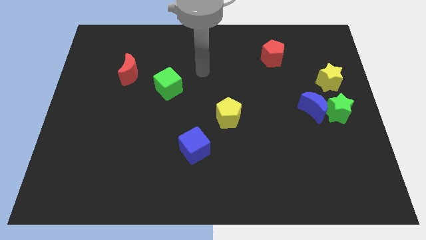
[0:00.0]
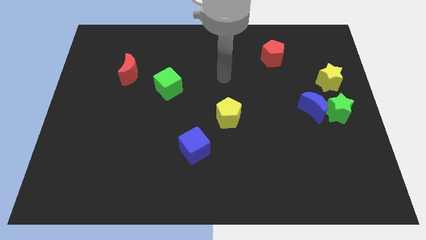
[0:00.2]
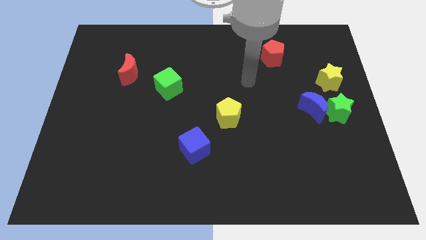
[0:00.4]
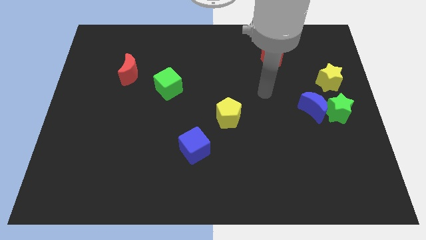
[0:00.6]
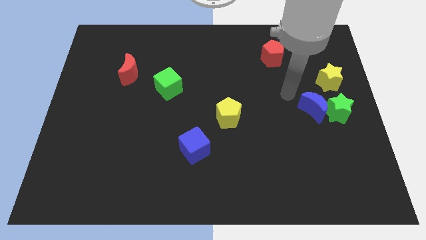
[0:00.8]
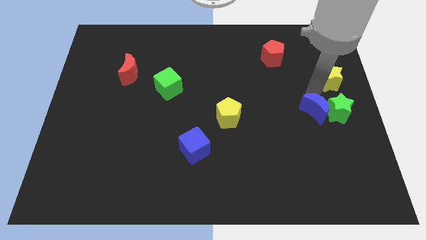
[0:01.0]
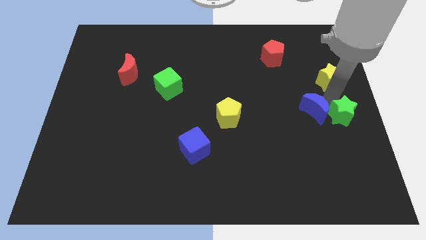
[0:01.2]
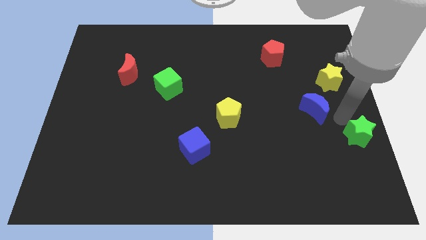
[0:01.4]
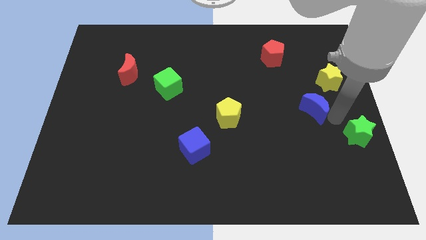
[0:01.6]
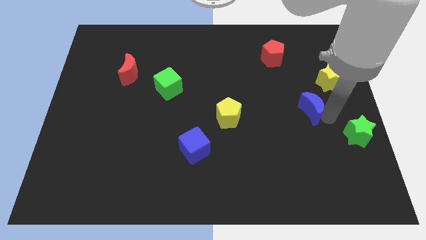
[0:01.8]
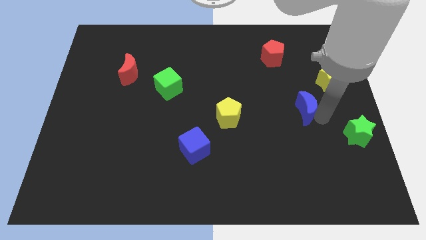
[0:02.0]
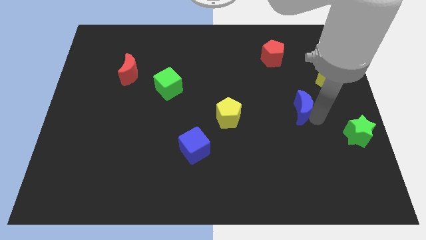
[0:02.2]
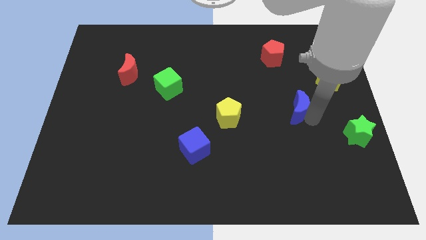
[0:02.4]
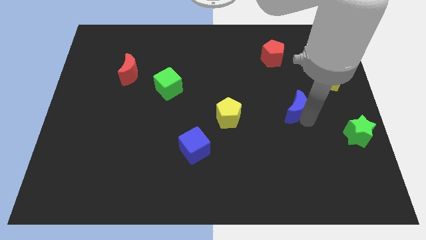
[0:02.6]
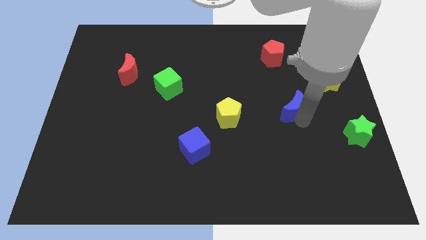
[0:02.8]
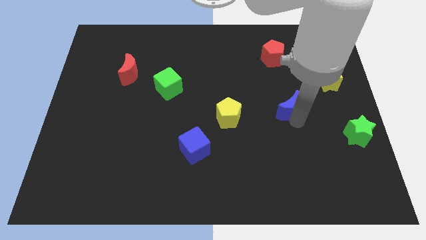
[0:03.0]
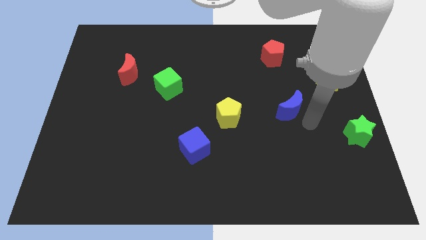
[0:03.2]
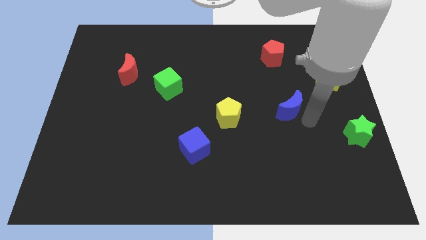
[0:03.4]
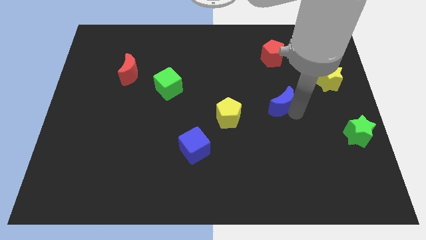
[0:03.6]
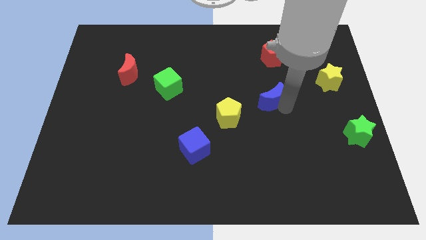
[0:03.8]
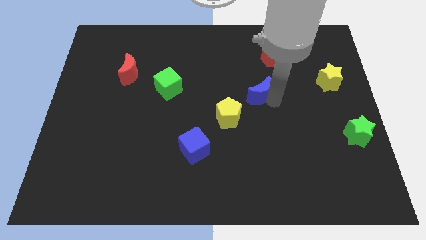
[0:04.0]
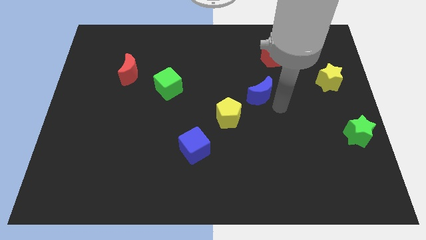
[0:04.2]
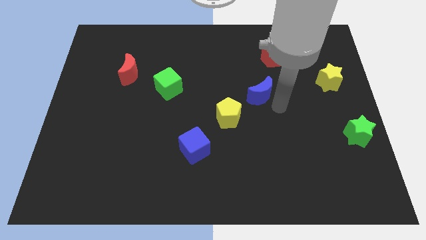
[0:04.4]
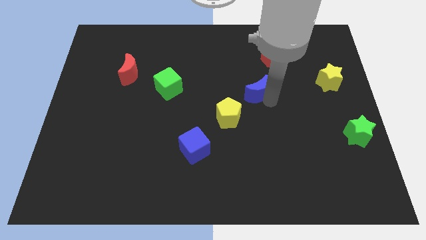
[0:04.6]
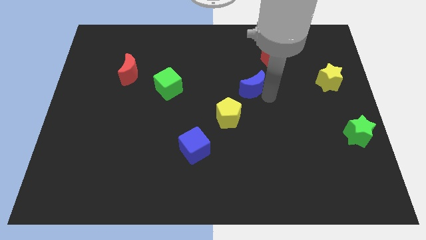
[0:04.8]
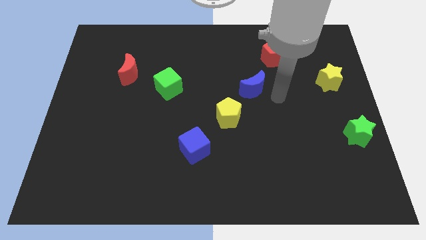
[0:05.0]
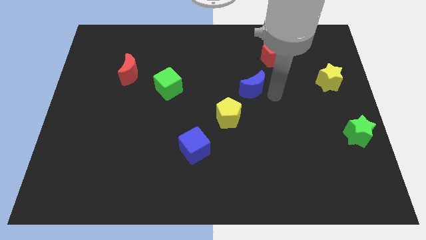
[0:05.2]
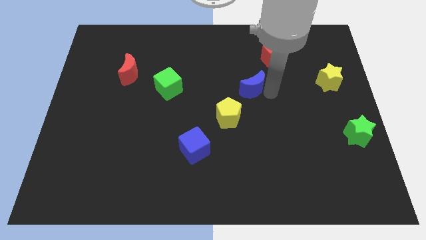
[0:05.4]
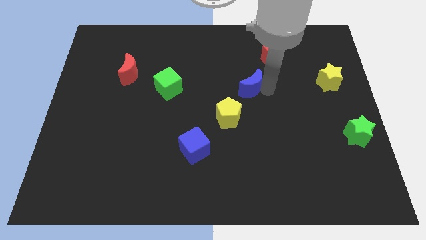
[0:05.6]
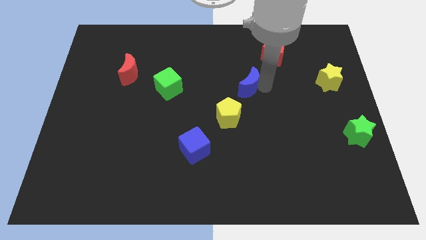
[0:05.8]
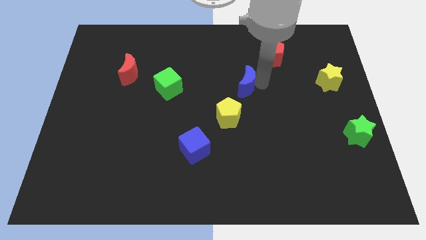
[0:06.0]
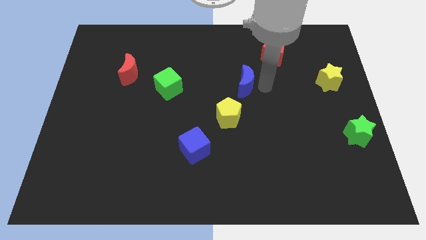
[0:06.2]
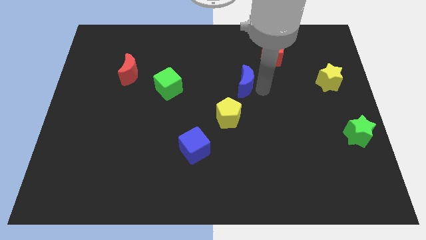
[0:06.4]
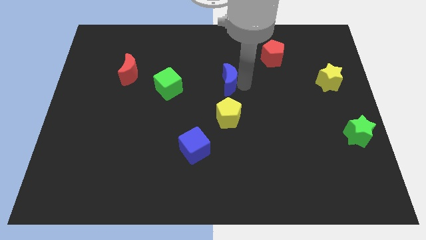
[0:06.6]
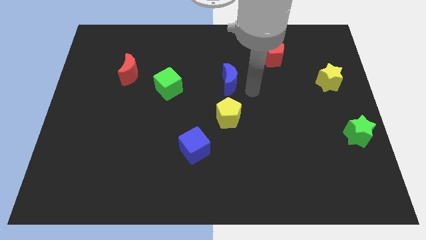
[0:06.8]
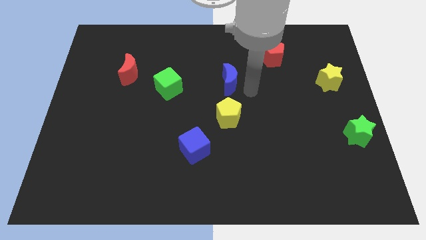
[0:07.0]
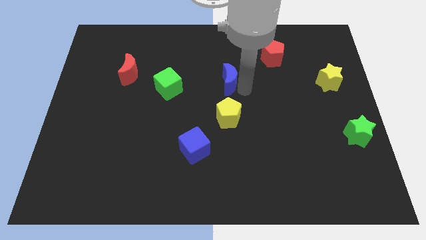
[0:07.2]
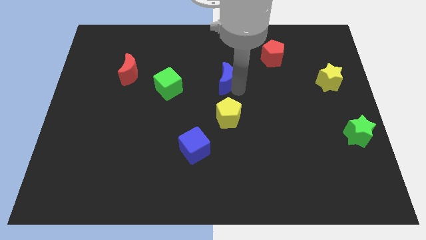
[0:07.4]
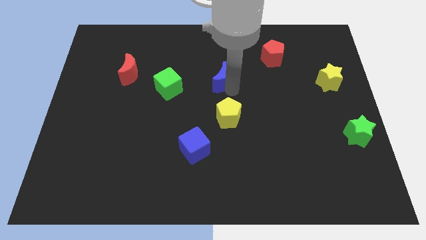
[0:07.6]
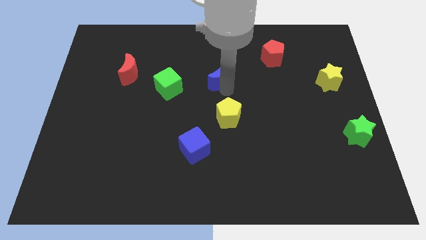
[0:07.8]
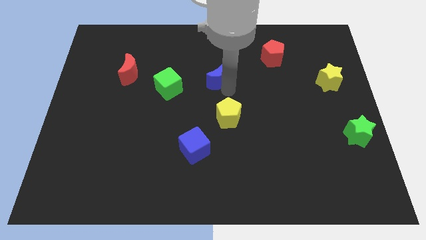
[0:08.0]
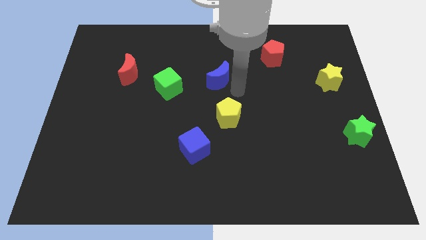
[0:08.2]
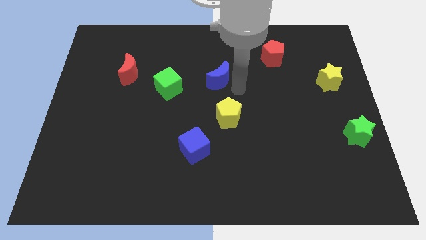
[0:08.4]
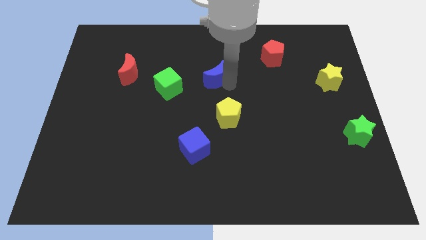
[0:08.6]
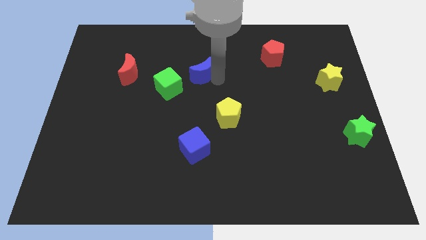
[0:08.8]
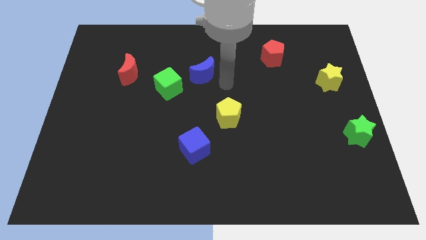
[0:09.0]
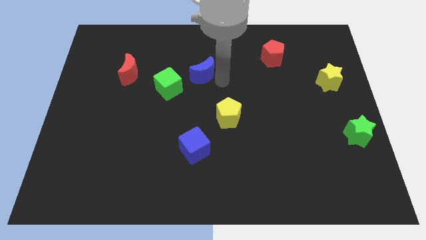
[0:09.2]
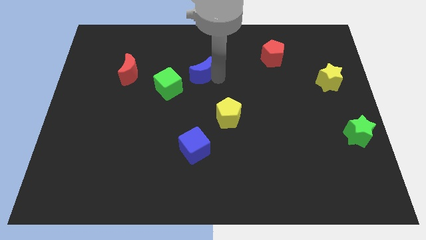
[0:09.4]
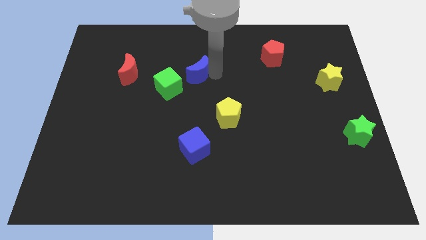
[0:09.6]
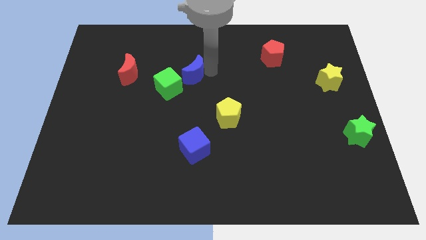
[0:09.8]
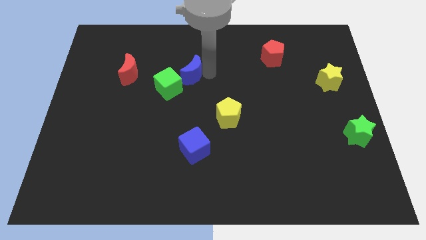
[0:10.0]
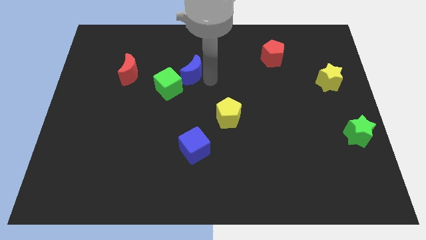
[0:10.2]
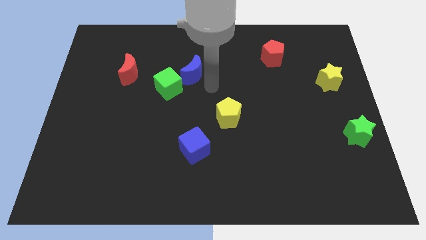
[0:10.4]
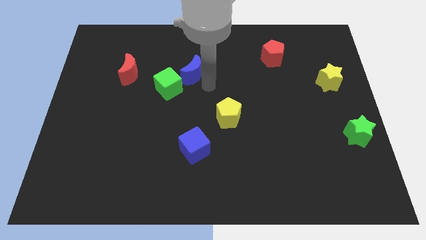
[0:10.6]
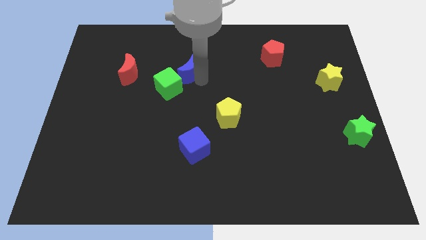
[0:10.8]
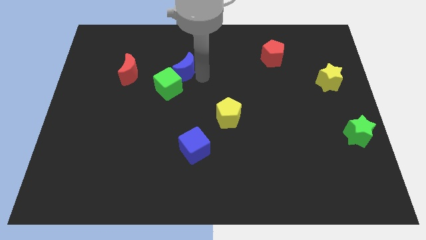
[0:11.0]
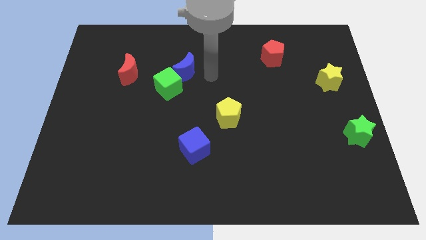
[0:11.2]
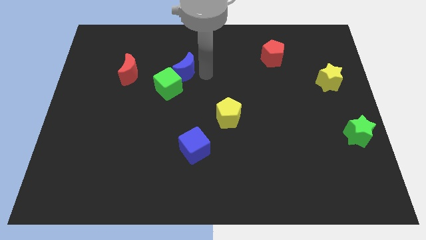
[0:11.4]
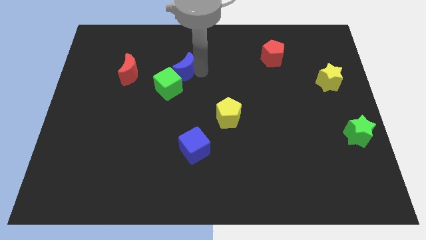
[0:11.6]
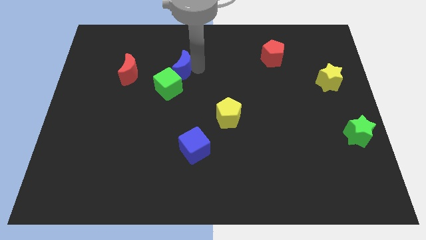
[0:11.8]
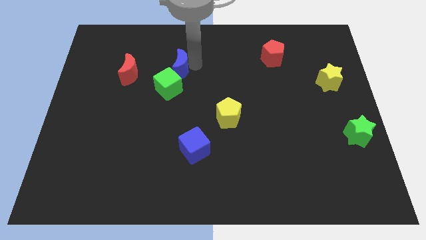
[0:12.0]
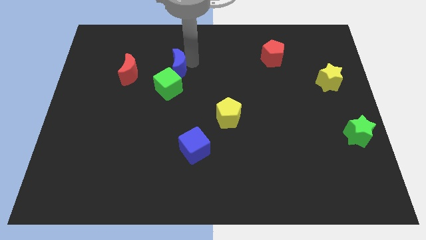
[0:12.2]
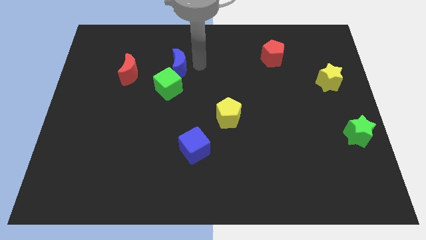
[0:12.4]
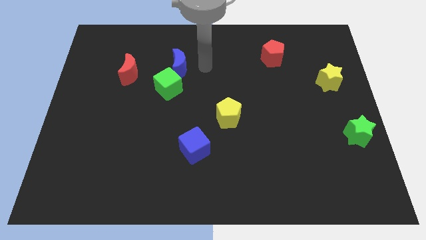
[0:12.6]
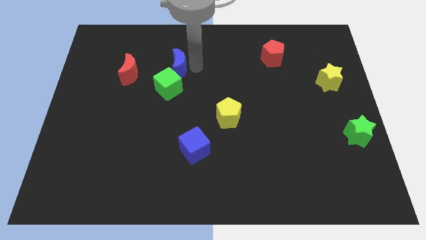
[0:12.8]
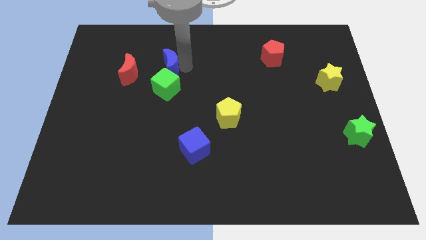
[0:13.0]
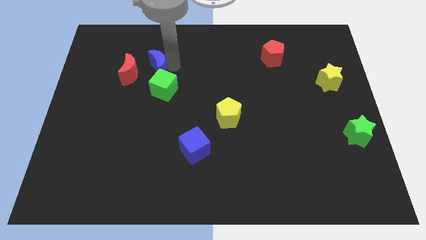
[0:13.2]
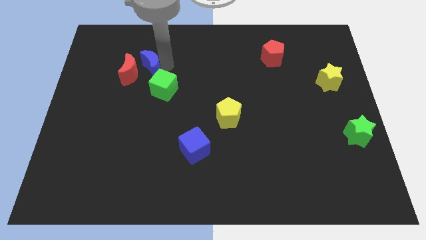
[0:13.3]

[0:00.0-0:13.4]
slide the blue moon towards the red moon
